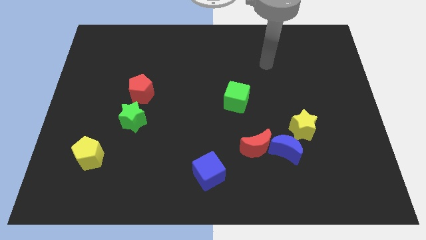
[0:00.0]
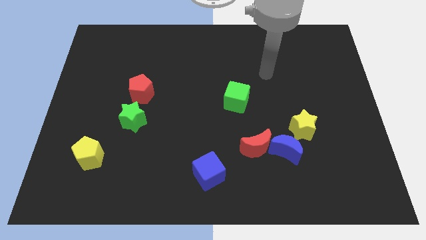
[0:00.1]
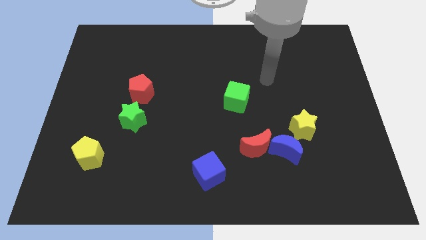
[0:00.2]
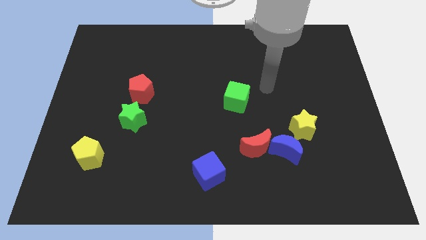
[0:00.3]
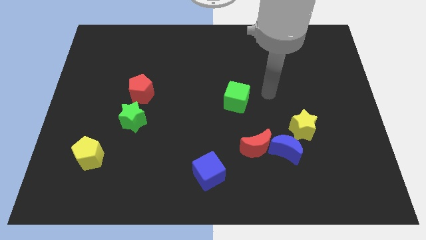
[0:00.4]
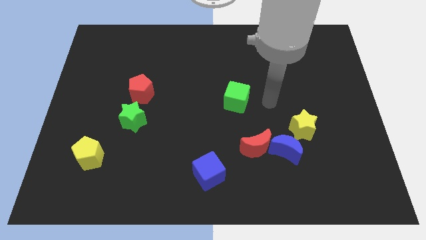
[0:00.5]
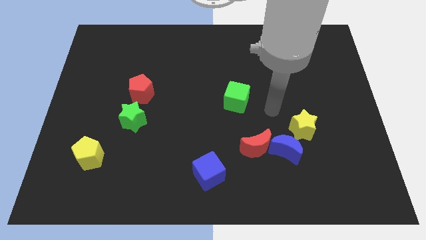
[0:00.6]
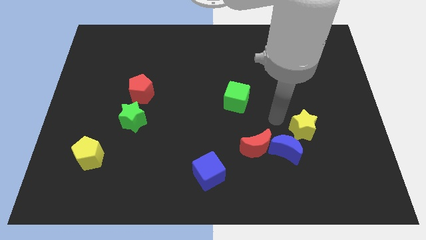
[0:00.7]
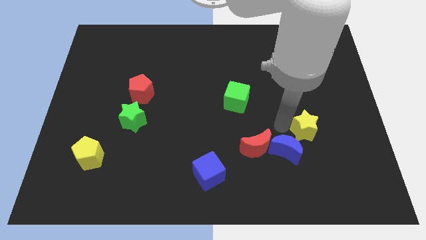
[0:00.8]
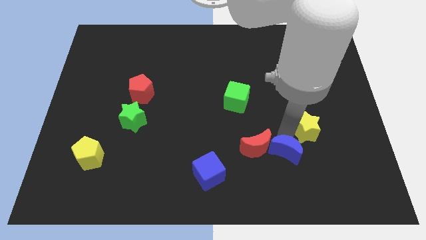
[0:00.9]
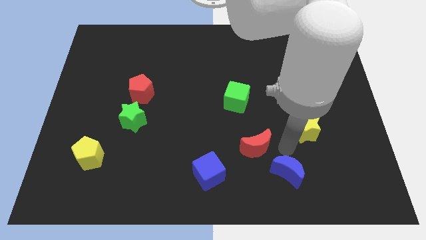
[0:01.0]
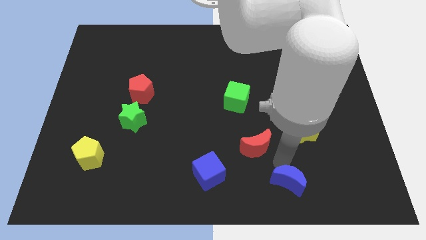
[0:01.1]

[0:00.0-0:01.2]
separate the red moon from the blue moon

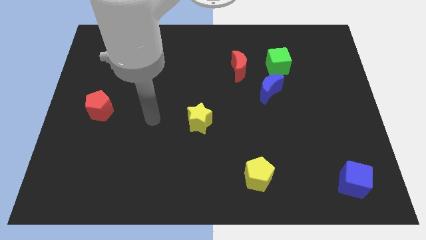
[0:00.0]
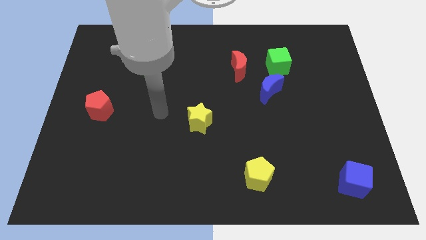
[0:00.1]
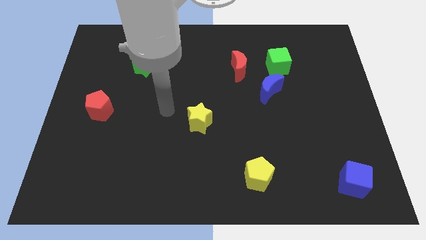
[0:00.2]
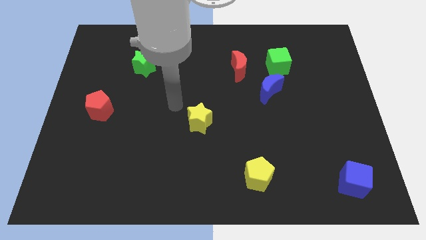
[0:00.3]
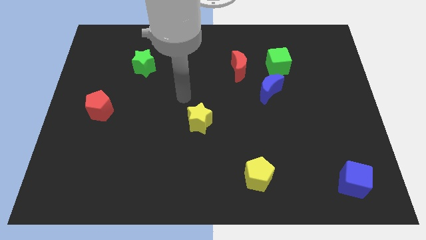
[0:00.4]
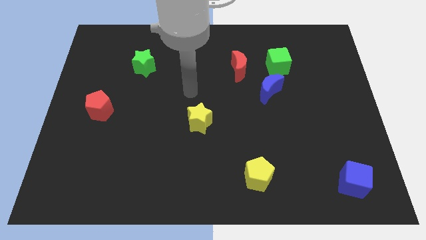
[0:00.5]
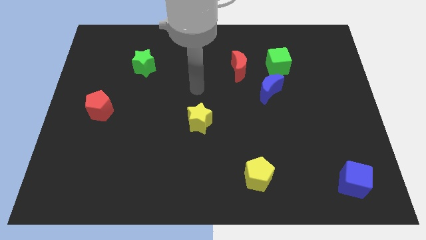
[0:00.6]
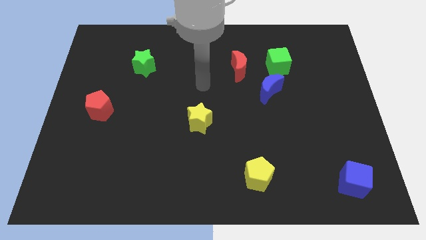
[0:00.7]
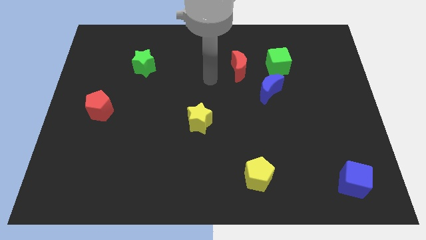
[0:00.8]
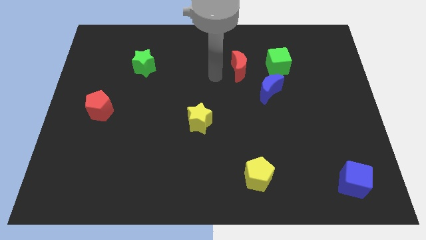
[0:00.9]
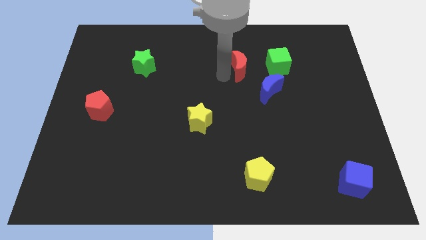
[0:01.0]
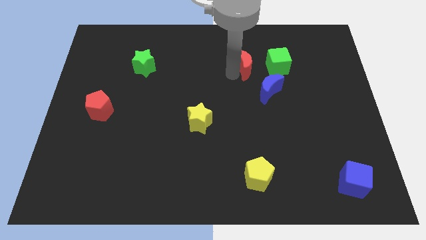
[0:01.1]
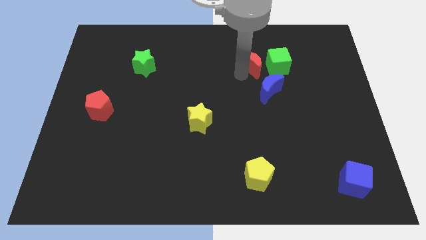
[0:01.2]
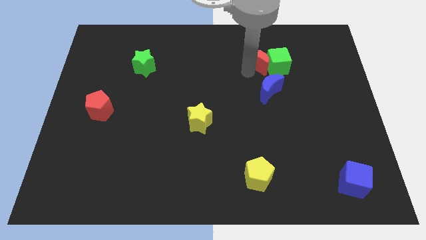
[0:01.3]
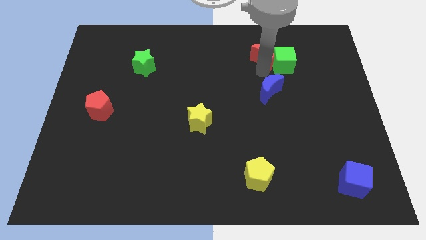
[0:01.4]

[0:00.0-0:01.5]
pull the blue moon apart from the green cube and red moon

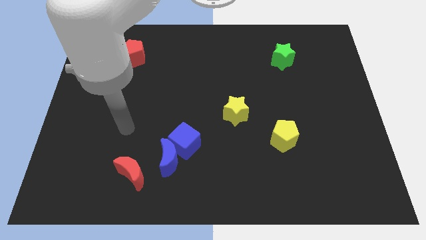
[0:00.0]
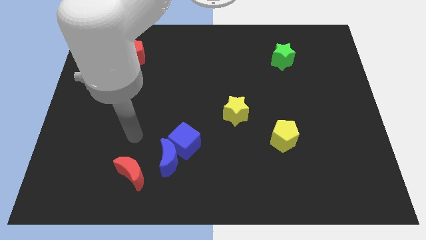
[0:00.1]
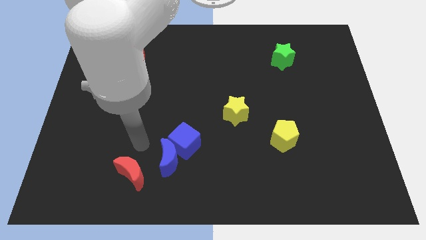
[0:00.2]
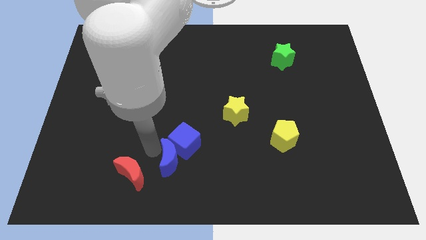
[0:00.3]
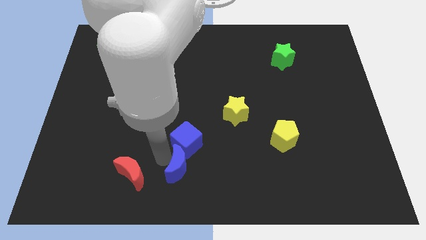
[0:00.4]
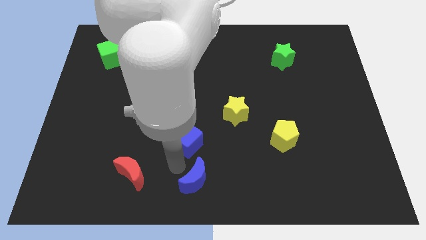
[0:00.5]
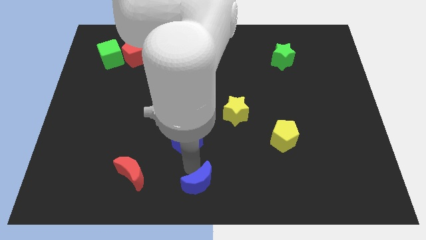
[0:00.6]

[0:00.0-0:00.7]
separate the blue cube from the blue moon

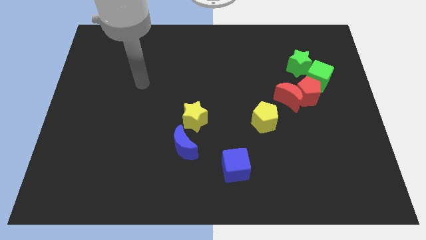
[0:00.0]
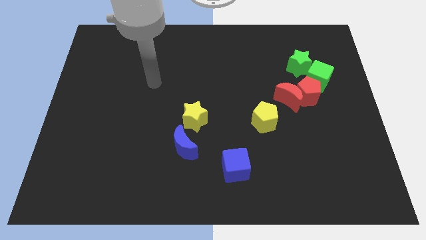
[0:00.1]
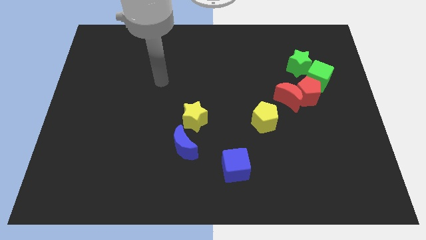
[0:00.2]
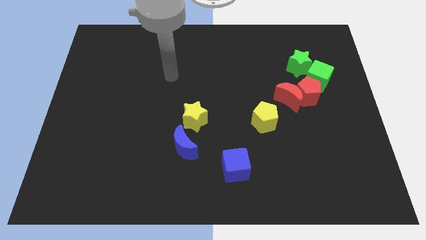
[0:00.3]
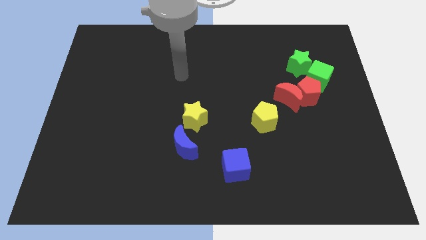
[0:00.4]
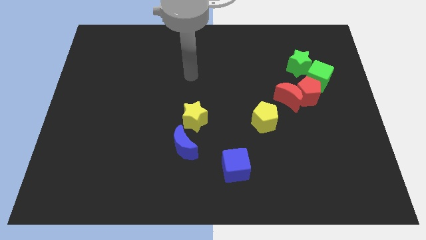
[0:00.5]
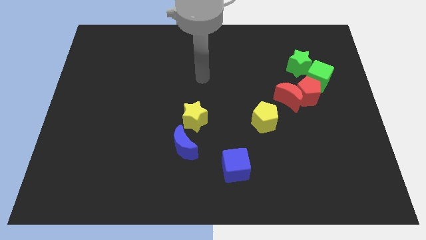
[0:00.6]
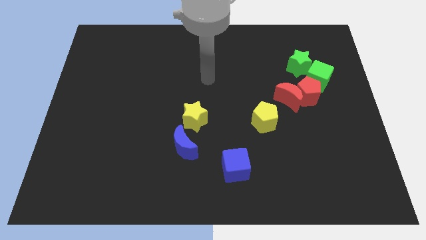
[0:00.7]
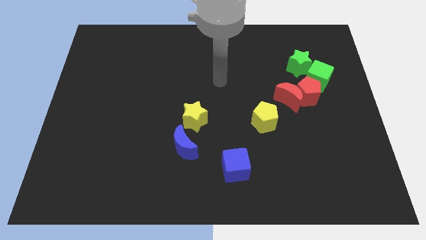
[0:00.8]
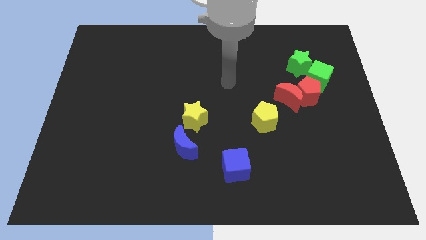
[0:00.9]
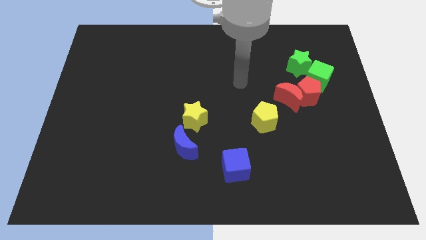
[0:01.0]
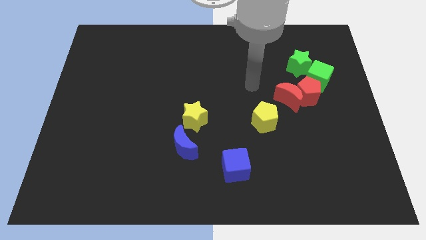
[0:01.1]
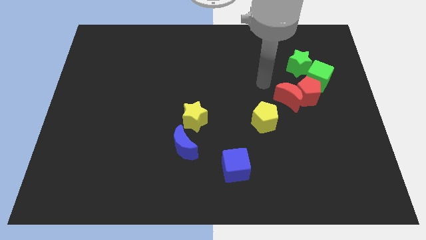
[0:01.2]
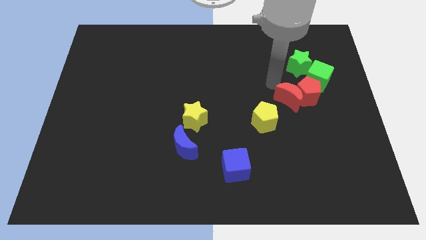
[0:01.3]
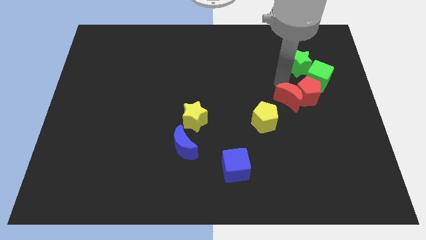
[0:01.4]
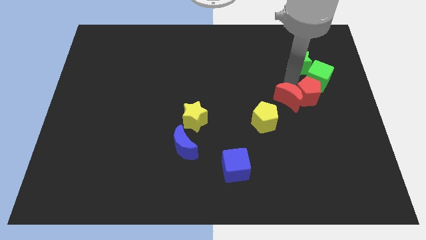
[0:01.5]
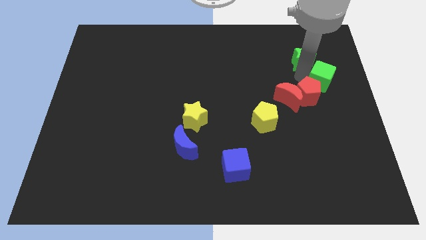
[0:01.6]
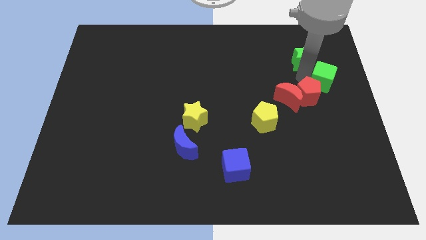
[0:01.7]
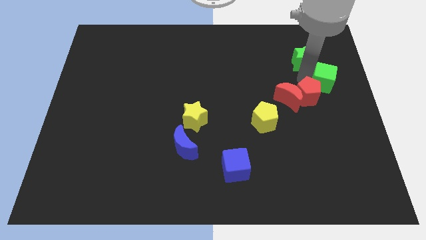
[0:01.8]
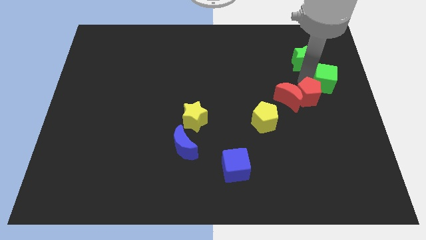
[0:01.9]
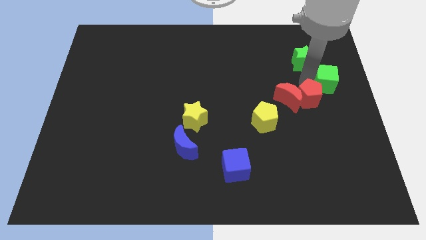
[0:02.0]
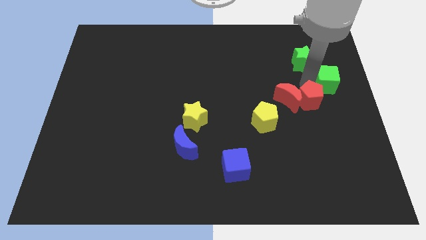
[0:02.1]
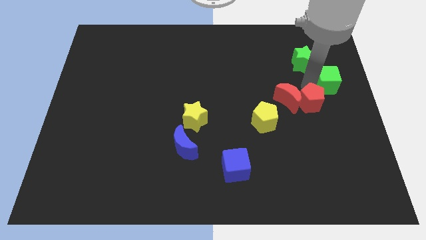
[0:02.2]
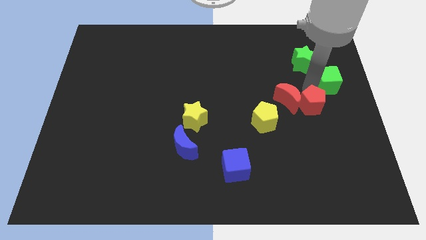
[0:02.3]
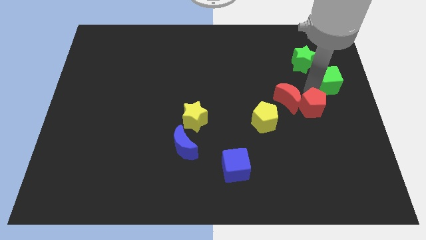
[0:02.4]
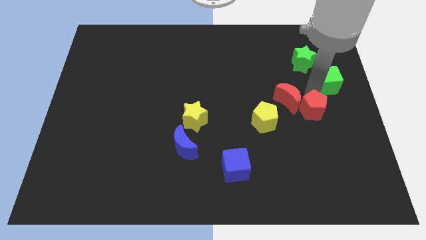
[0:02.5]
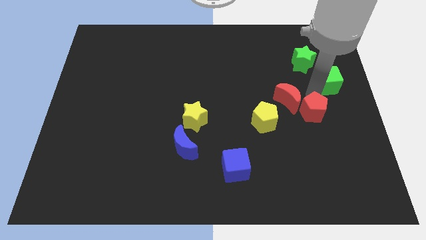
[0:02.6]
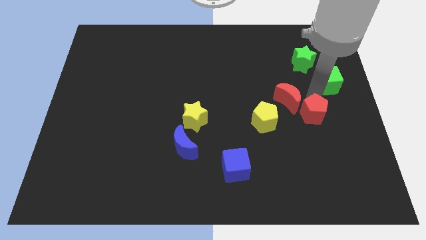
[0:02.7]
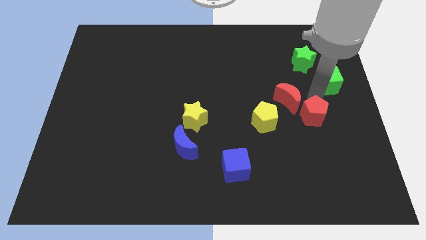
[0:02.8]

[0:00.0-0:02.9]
move the red pentagon away from the group

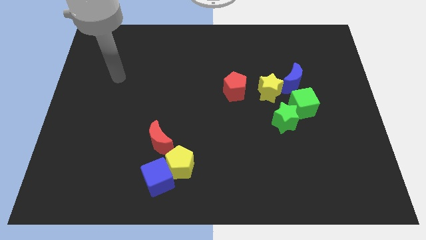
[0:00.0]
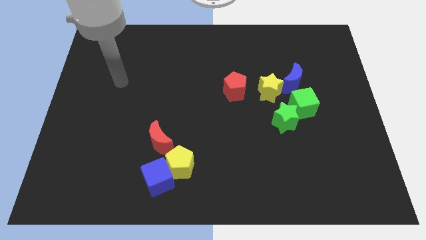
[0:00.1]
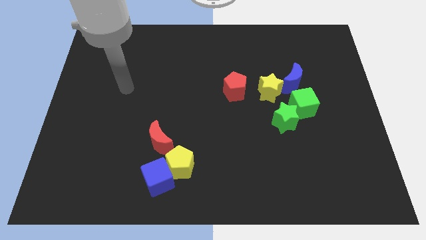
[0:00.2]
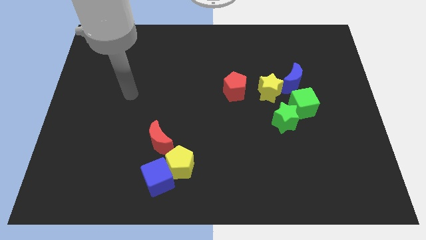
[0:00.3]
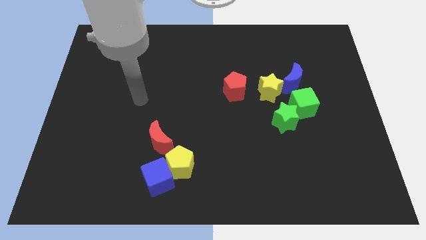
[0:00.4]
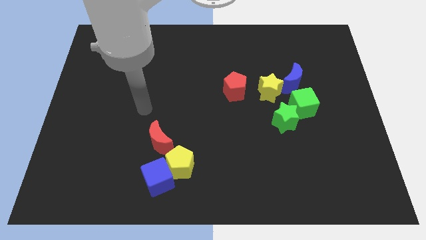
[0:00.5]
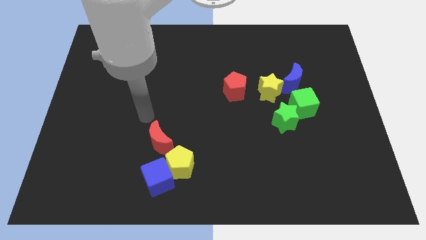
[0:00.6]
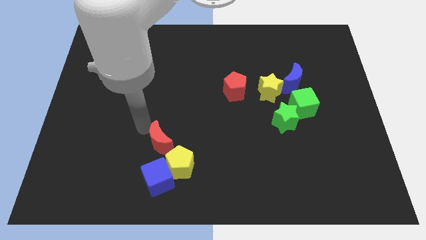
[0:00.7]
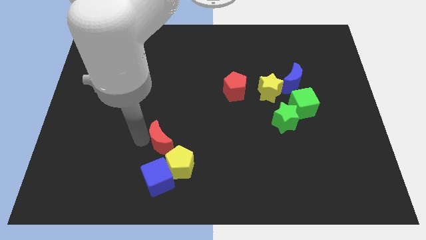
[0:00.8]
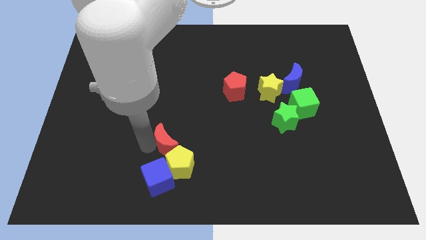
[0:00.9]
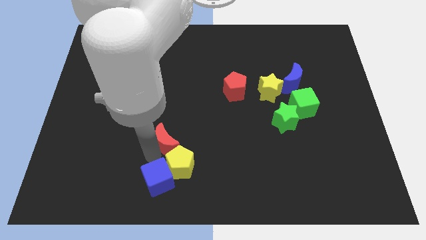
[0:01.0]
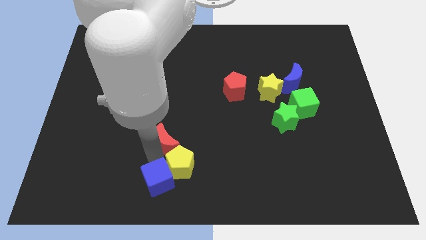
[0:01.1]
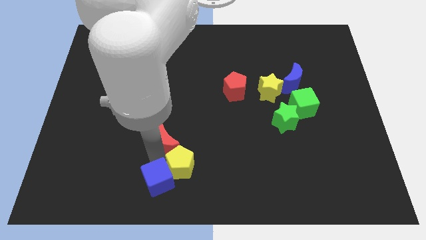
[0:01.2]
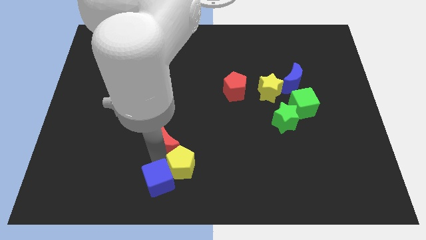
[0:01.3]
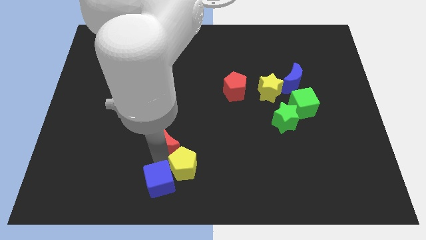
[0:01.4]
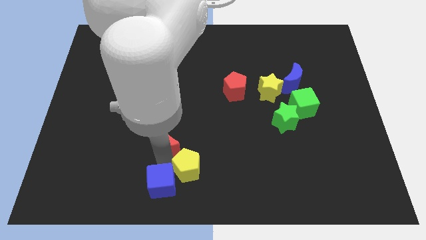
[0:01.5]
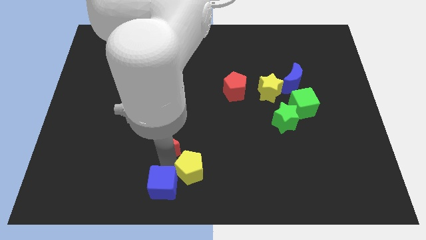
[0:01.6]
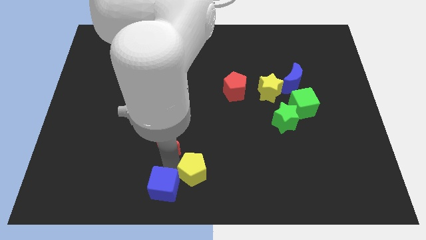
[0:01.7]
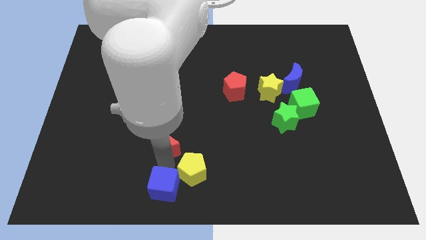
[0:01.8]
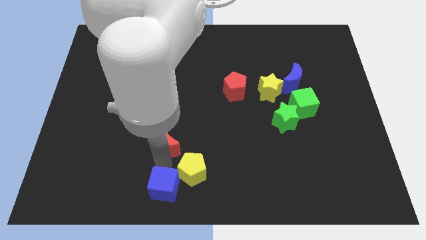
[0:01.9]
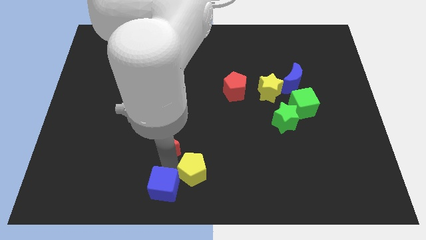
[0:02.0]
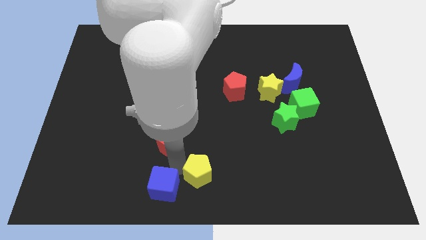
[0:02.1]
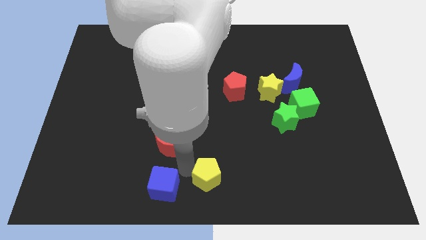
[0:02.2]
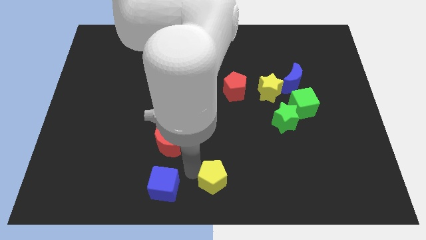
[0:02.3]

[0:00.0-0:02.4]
move the yellow pentagon away from the blue cube and red moon

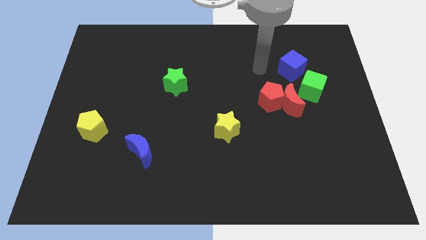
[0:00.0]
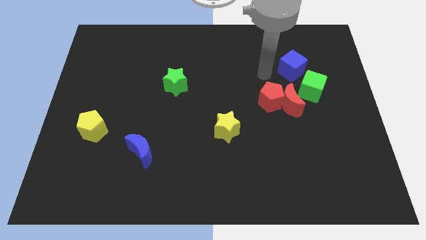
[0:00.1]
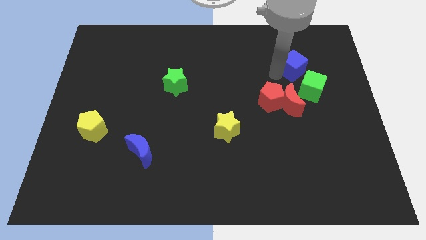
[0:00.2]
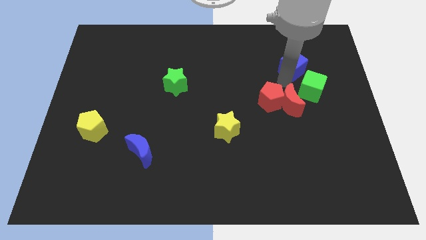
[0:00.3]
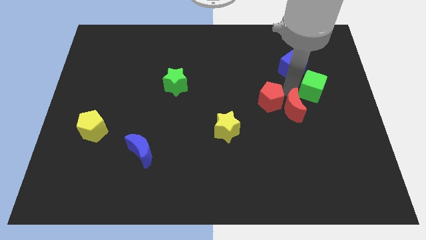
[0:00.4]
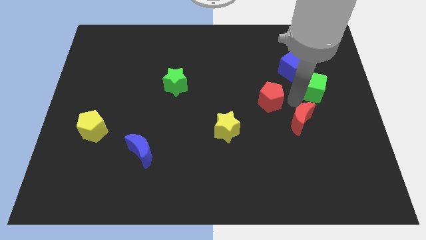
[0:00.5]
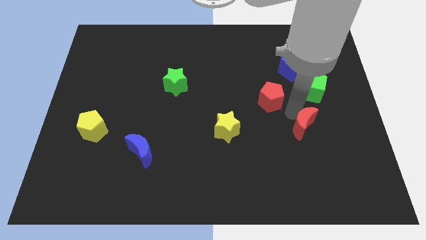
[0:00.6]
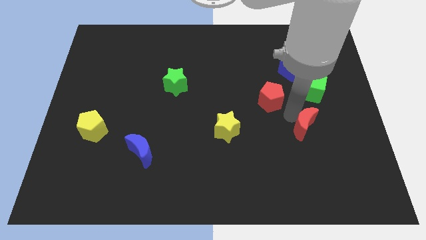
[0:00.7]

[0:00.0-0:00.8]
separate the red pentagon from the red moon

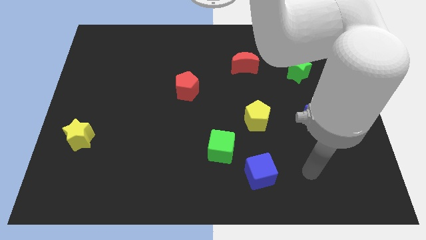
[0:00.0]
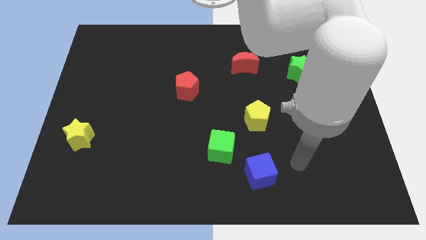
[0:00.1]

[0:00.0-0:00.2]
separate the blue cube from the green cube
